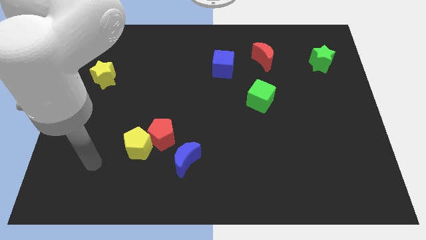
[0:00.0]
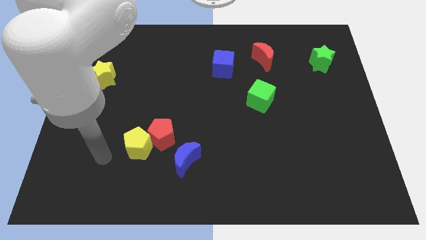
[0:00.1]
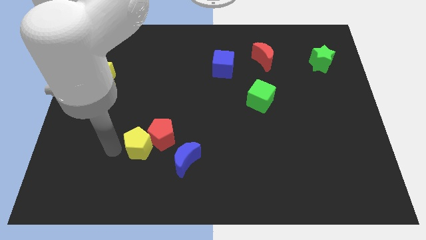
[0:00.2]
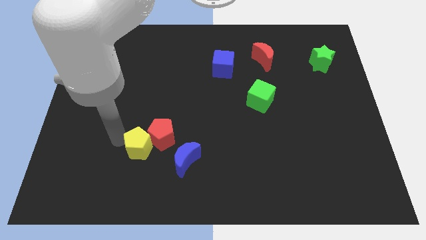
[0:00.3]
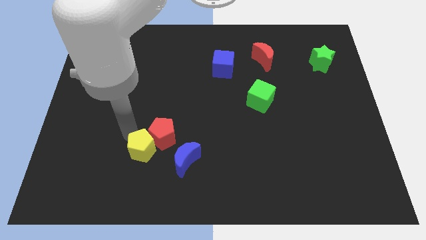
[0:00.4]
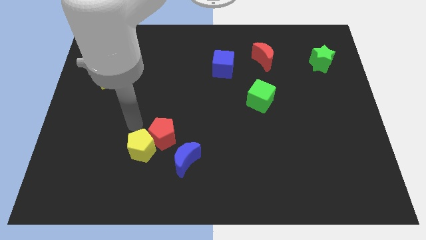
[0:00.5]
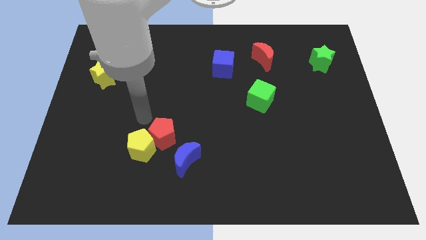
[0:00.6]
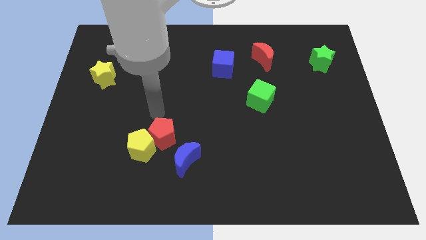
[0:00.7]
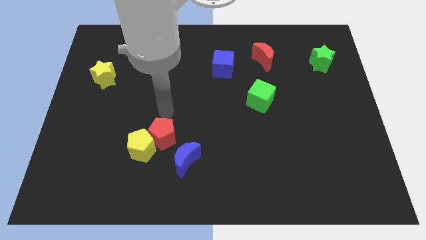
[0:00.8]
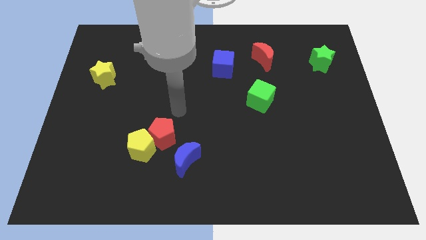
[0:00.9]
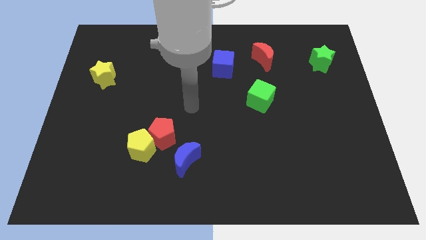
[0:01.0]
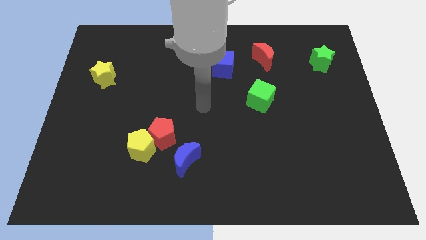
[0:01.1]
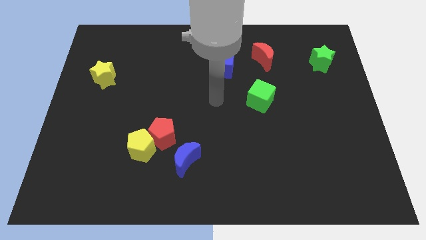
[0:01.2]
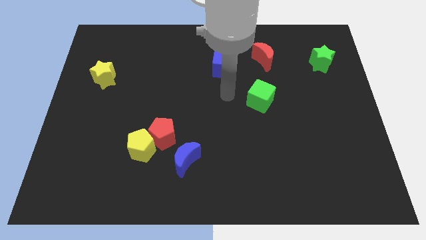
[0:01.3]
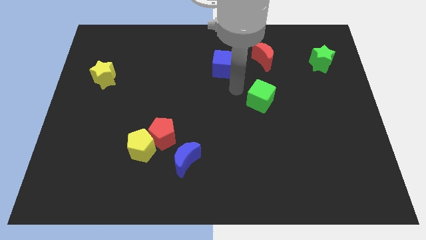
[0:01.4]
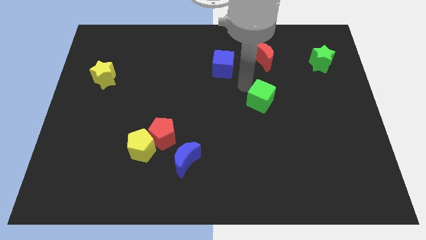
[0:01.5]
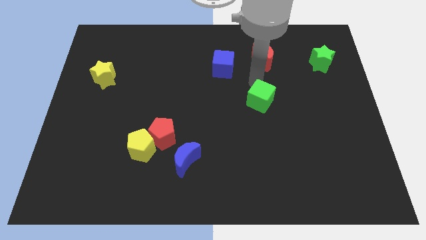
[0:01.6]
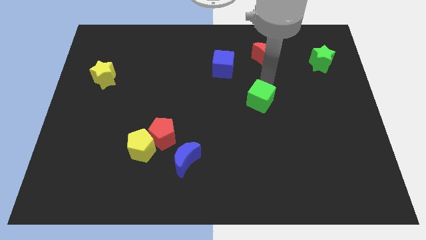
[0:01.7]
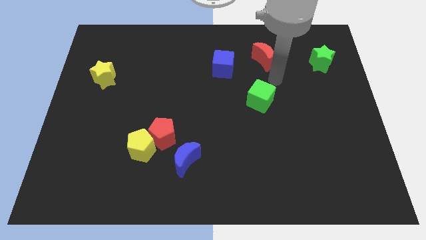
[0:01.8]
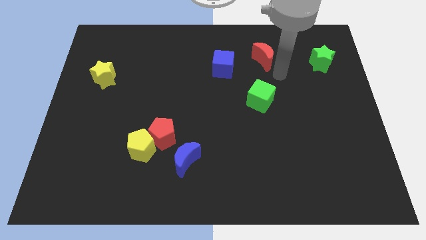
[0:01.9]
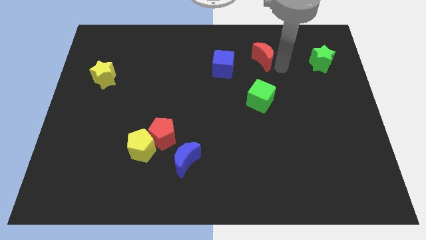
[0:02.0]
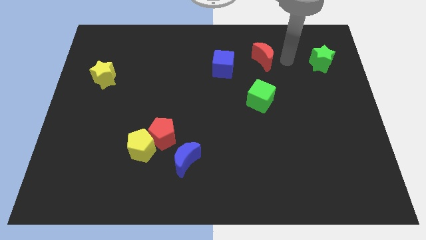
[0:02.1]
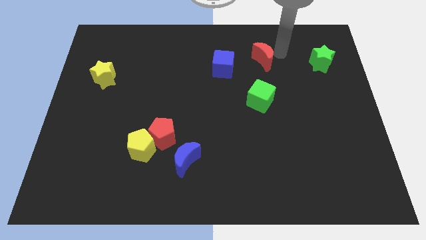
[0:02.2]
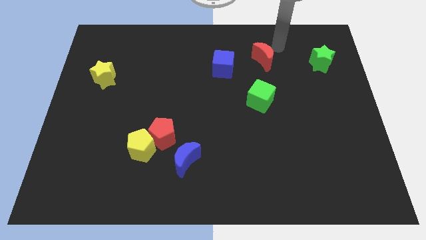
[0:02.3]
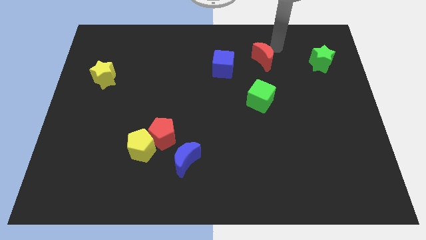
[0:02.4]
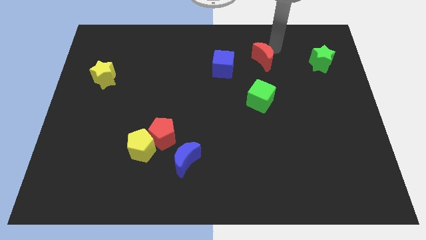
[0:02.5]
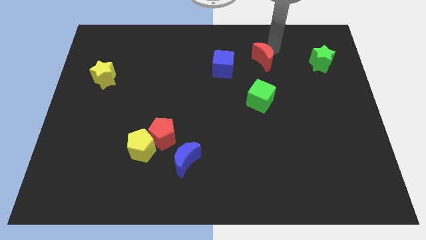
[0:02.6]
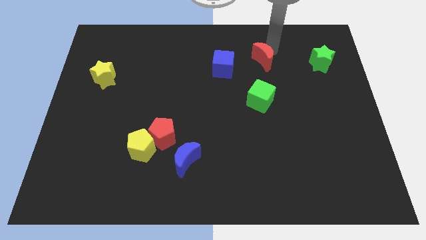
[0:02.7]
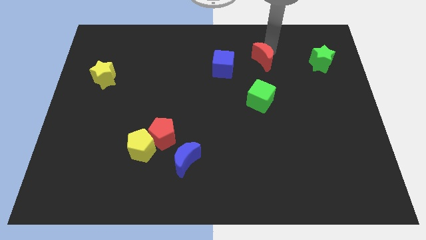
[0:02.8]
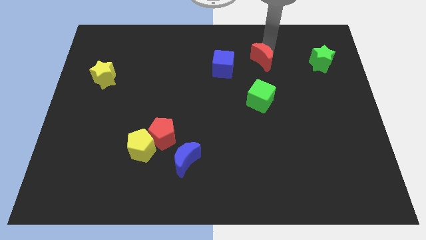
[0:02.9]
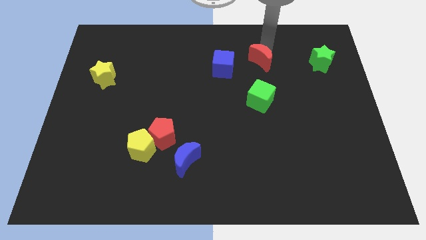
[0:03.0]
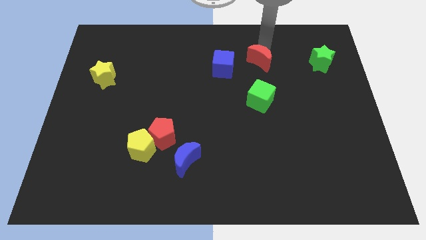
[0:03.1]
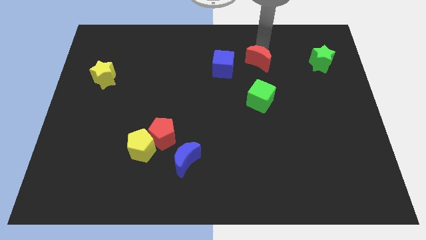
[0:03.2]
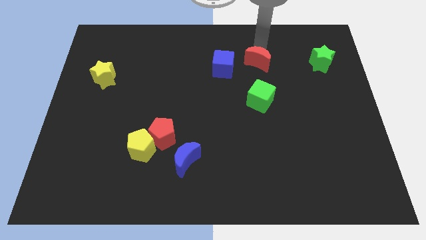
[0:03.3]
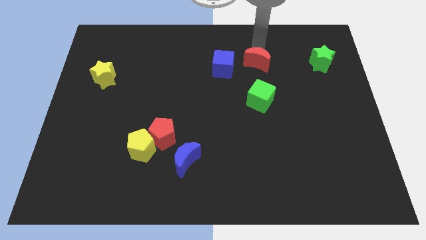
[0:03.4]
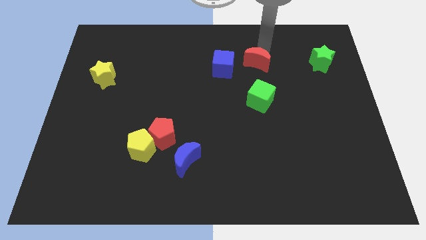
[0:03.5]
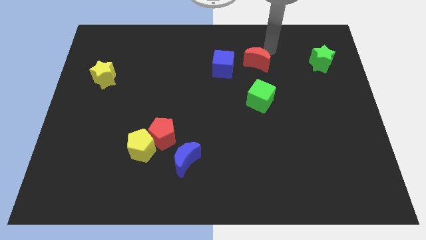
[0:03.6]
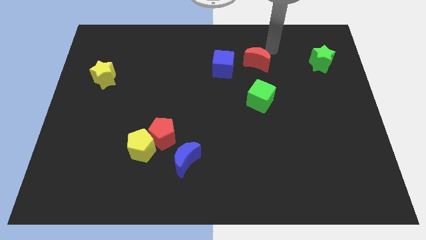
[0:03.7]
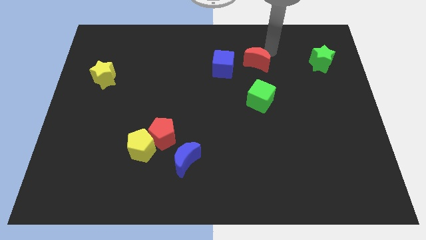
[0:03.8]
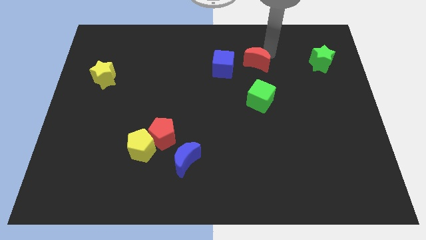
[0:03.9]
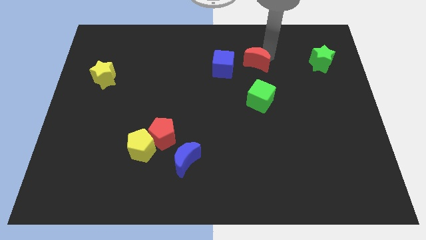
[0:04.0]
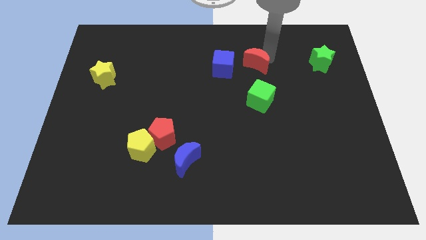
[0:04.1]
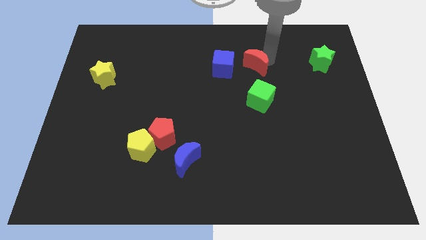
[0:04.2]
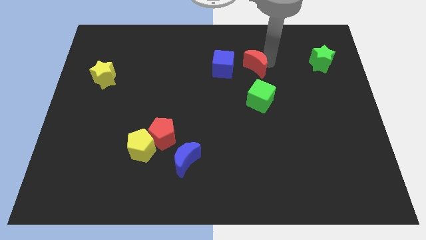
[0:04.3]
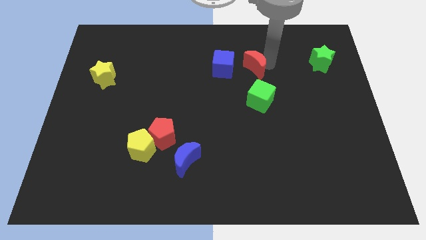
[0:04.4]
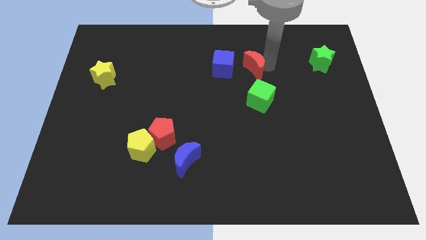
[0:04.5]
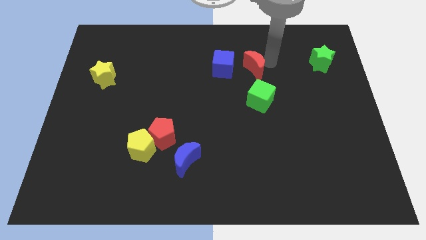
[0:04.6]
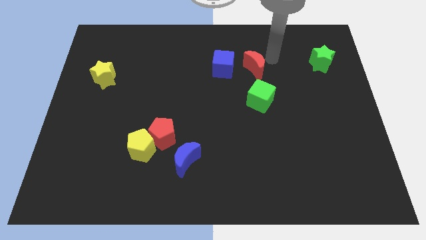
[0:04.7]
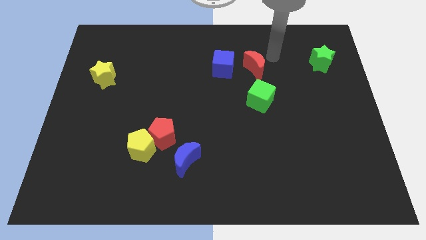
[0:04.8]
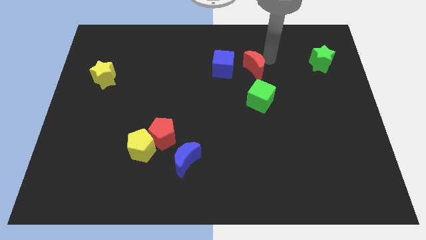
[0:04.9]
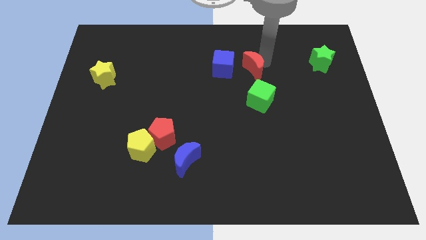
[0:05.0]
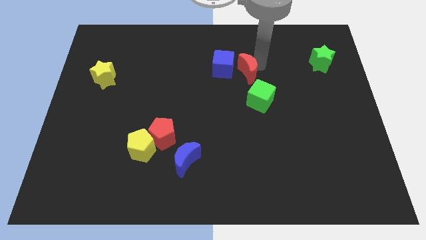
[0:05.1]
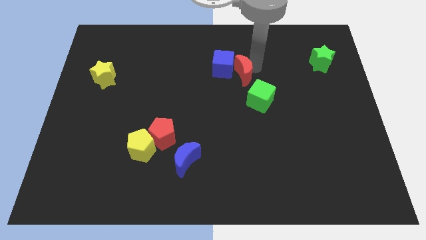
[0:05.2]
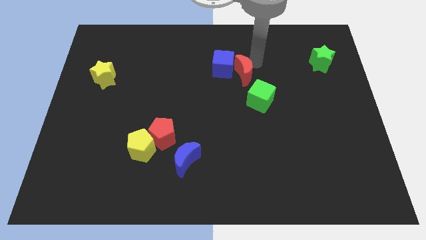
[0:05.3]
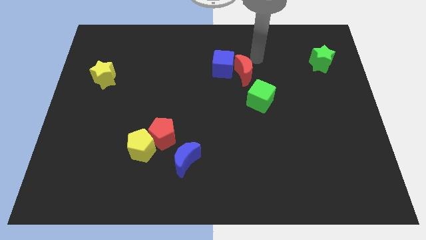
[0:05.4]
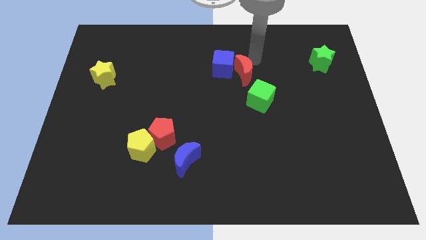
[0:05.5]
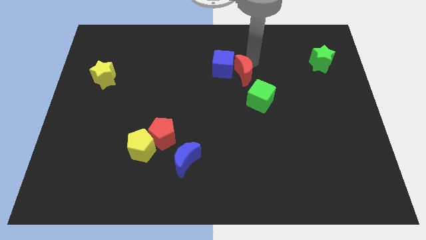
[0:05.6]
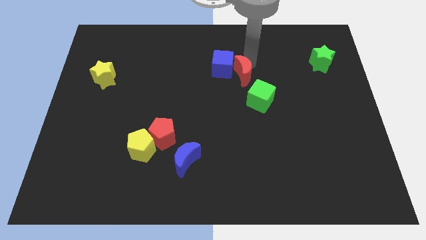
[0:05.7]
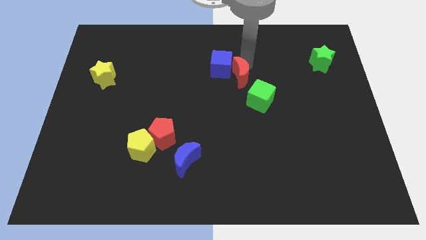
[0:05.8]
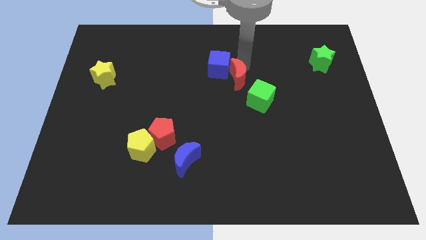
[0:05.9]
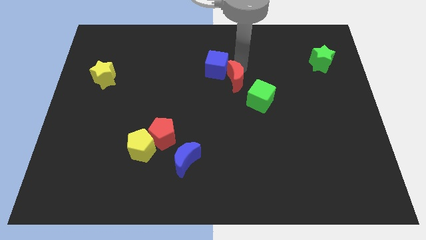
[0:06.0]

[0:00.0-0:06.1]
put the red moon to the bottom of the blue cube

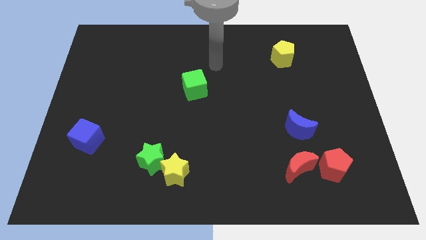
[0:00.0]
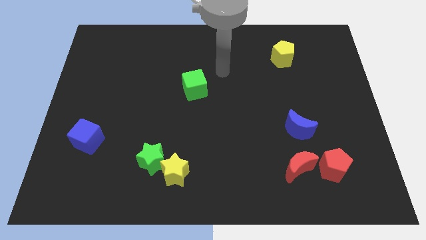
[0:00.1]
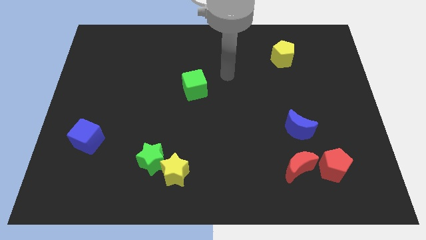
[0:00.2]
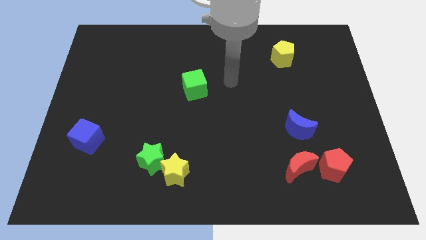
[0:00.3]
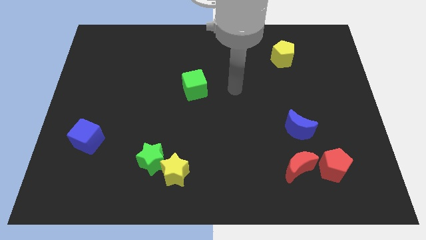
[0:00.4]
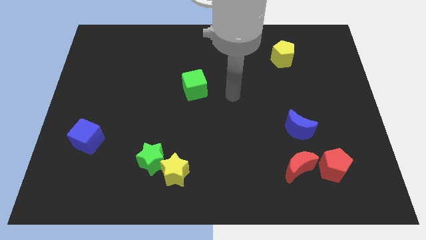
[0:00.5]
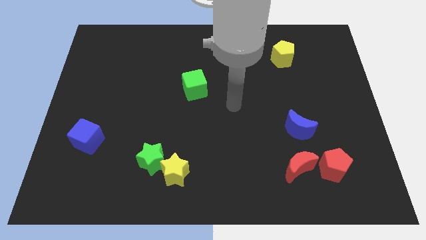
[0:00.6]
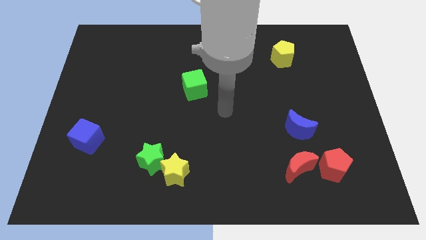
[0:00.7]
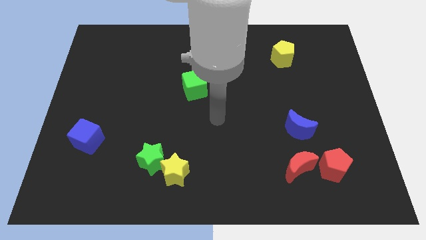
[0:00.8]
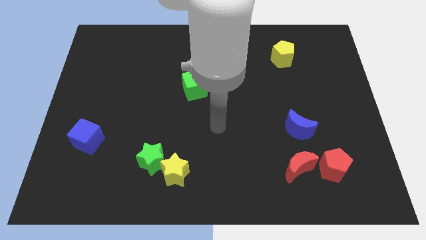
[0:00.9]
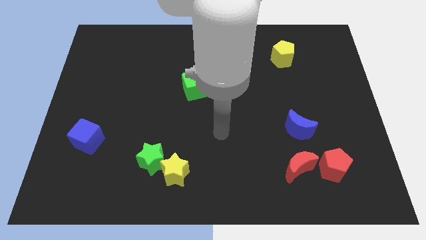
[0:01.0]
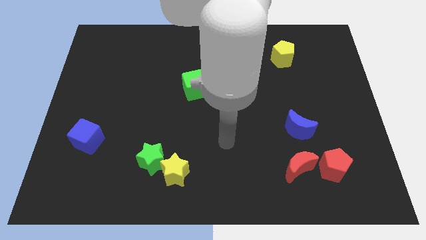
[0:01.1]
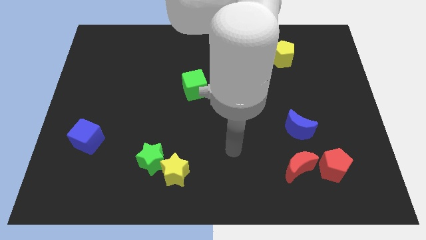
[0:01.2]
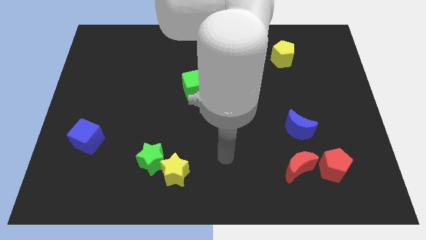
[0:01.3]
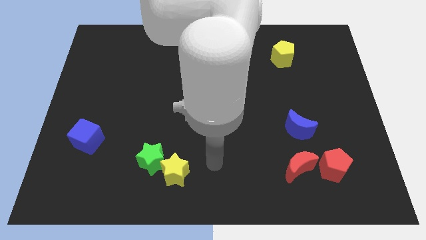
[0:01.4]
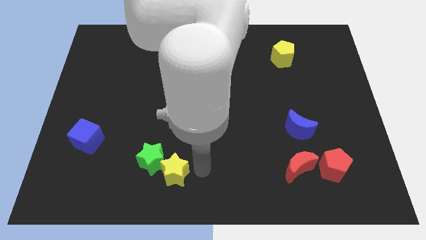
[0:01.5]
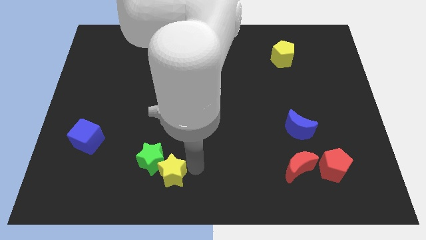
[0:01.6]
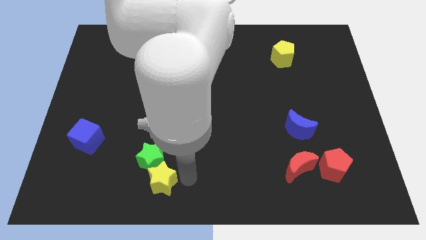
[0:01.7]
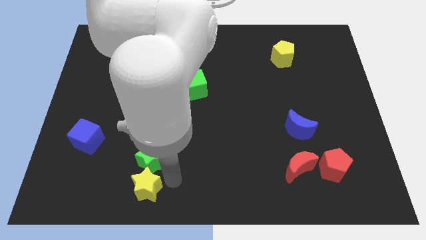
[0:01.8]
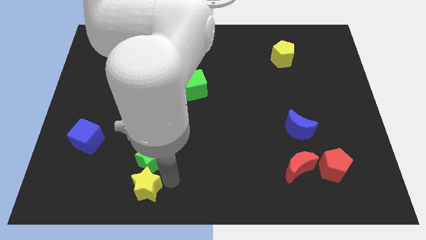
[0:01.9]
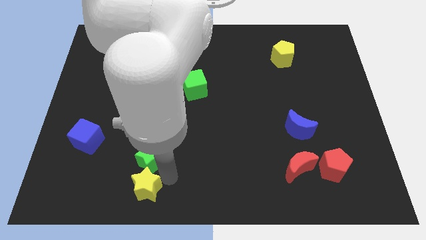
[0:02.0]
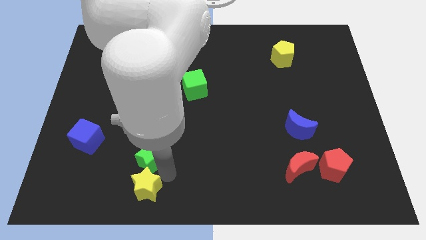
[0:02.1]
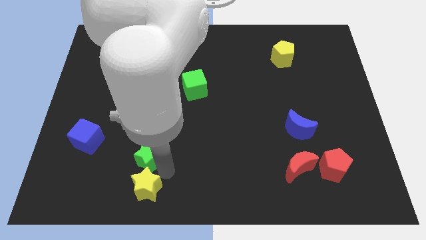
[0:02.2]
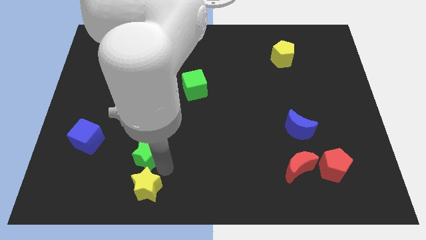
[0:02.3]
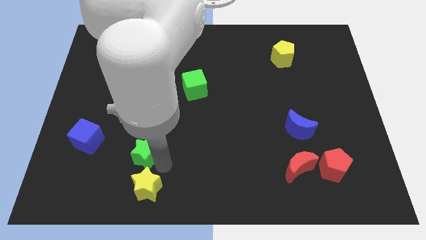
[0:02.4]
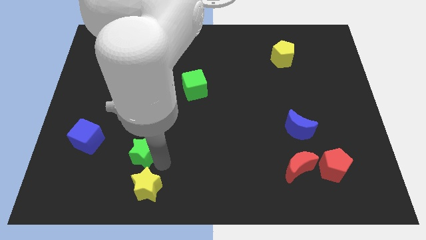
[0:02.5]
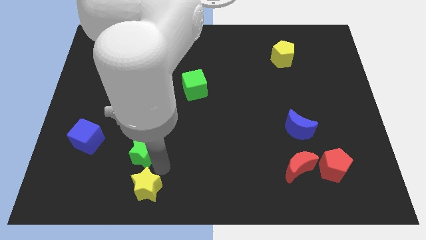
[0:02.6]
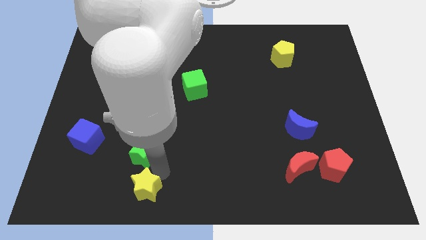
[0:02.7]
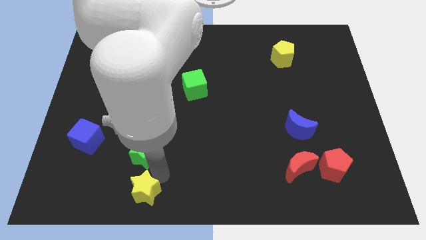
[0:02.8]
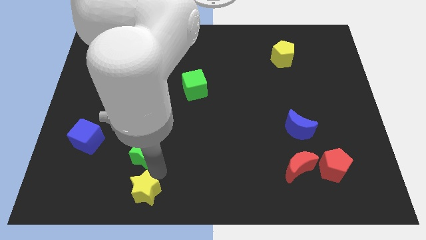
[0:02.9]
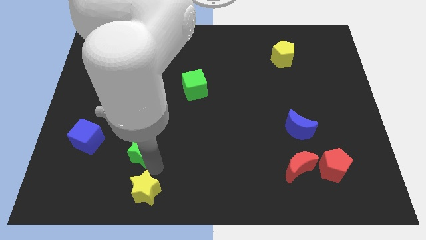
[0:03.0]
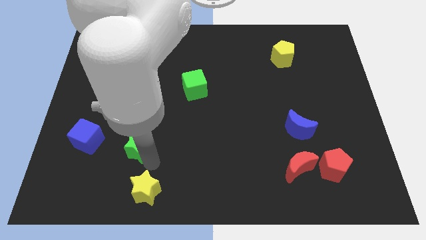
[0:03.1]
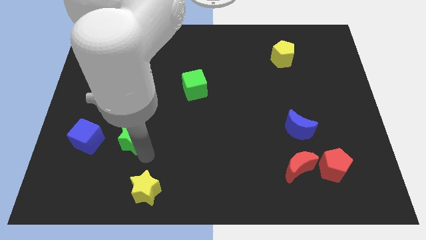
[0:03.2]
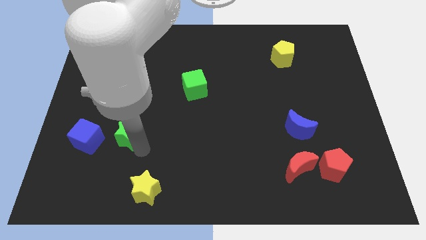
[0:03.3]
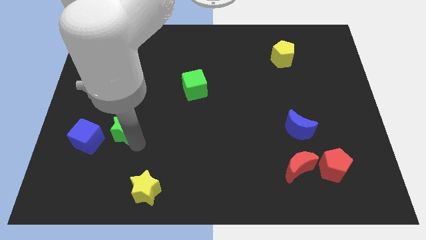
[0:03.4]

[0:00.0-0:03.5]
put the green star diagonally up and to the right of the blue cube
